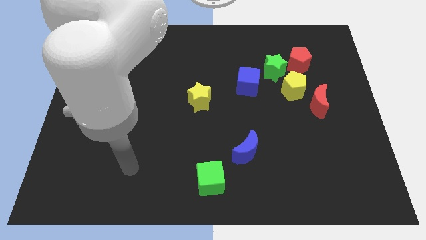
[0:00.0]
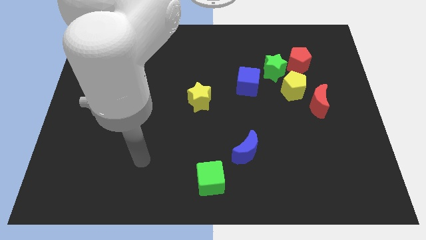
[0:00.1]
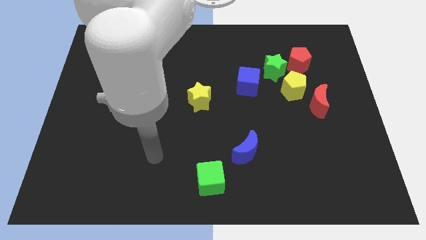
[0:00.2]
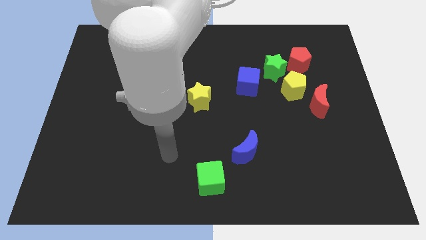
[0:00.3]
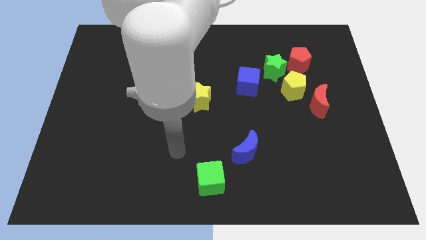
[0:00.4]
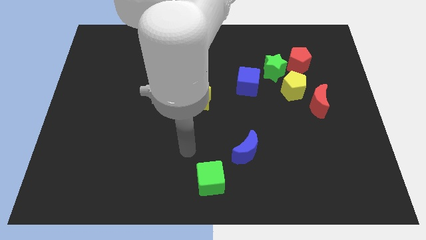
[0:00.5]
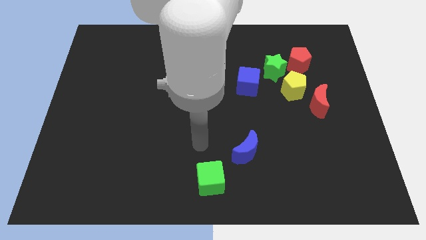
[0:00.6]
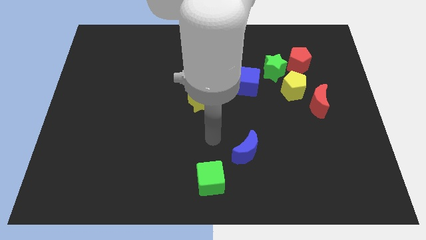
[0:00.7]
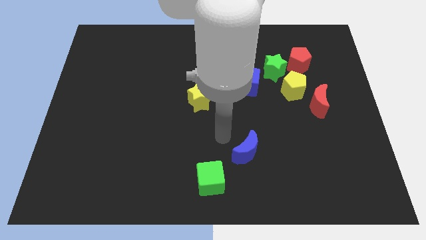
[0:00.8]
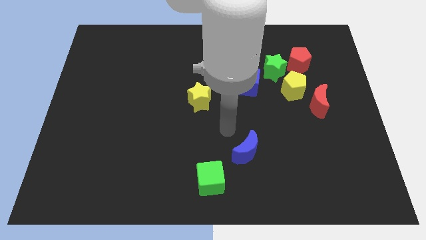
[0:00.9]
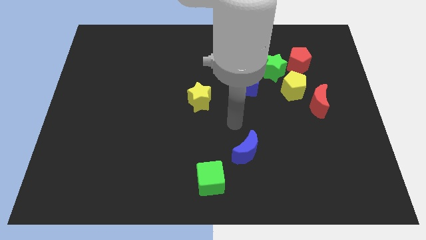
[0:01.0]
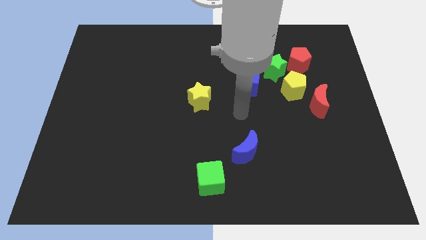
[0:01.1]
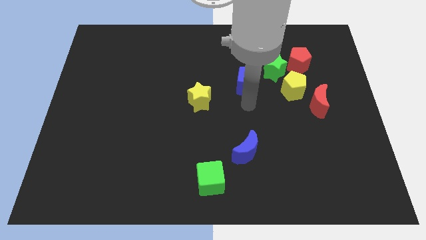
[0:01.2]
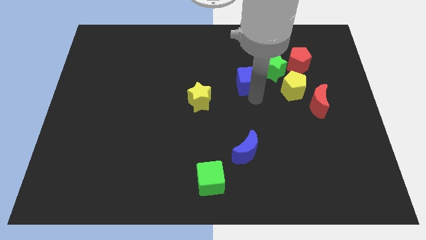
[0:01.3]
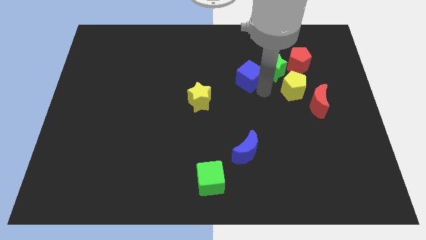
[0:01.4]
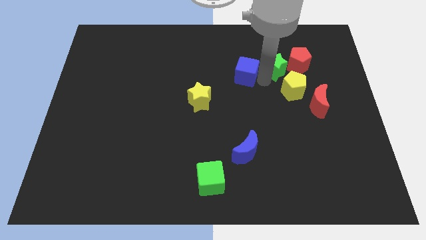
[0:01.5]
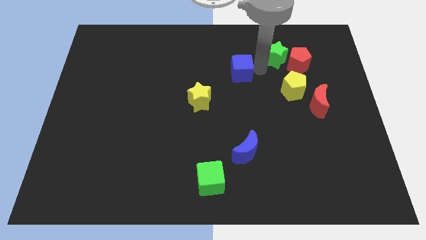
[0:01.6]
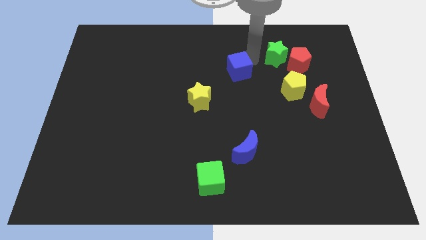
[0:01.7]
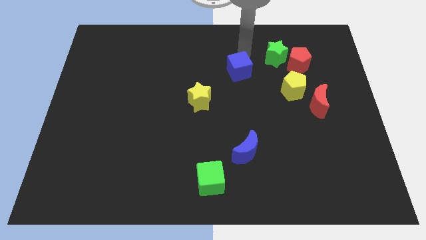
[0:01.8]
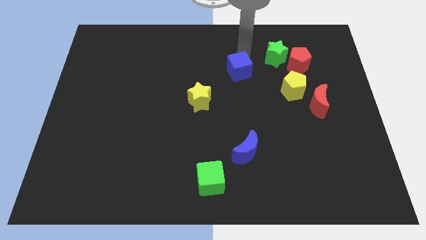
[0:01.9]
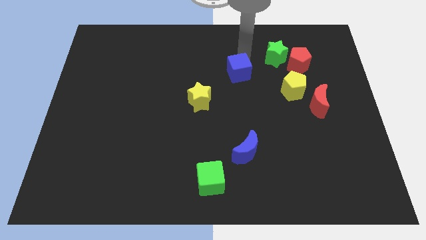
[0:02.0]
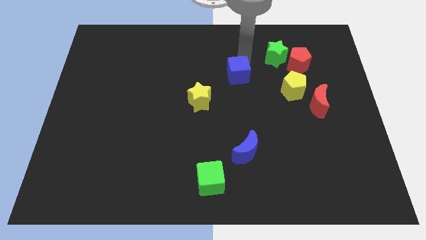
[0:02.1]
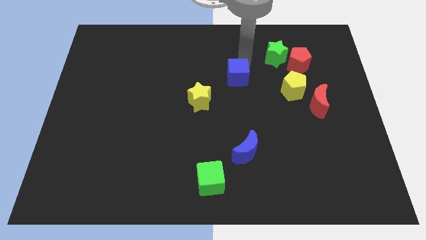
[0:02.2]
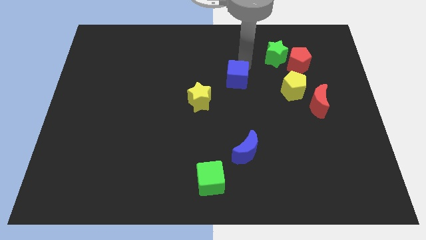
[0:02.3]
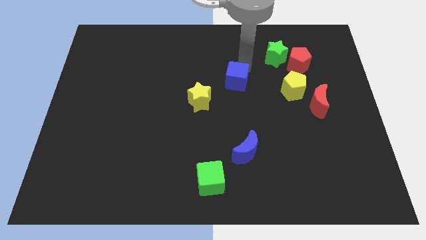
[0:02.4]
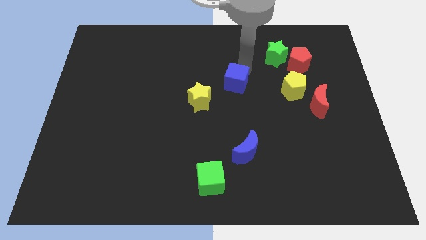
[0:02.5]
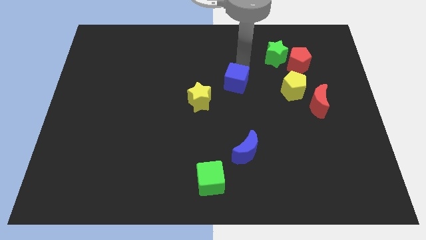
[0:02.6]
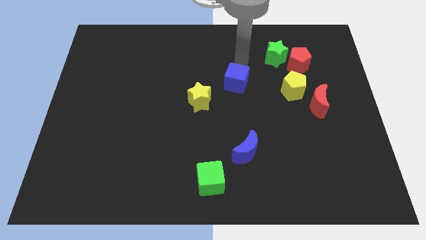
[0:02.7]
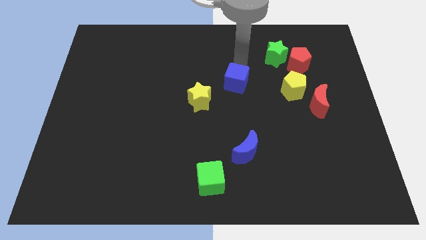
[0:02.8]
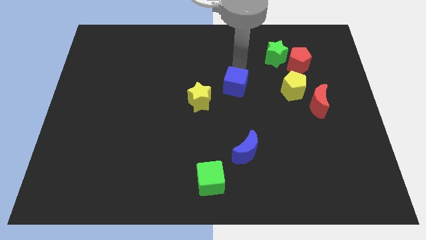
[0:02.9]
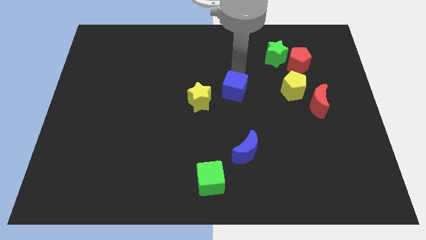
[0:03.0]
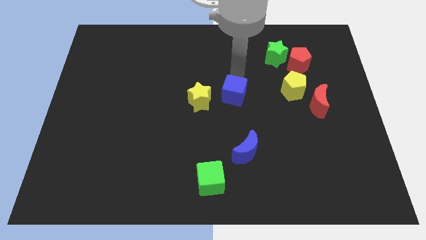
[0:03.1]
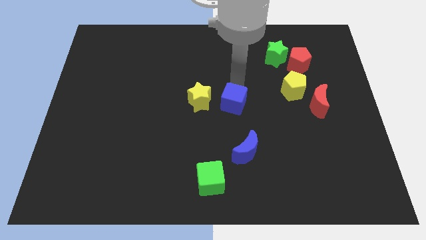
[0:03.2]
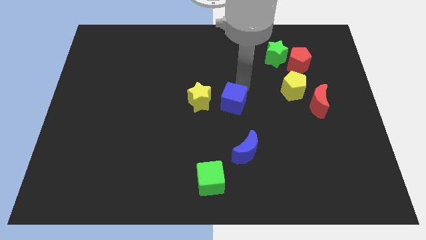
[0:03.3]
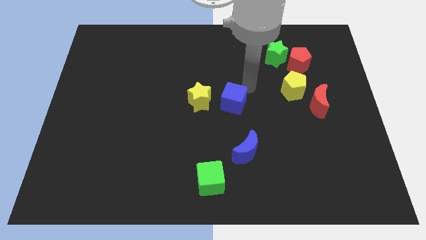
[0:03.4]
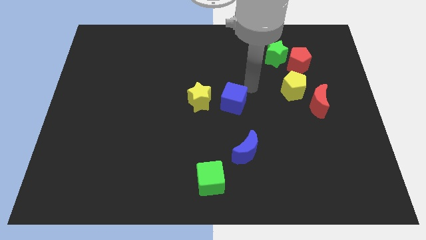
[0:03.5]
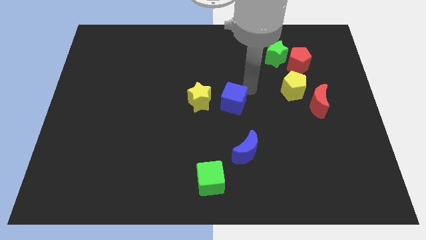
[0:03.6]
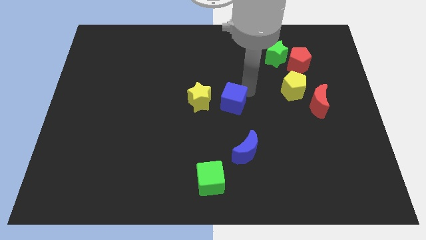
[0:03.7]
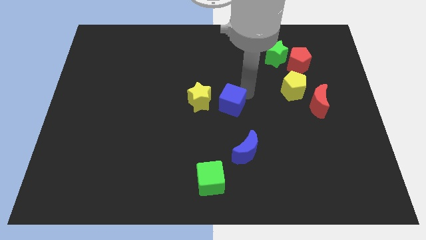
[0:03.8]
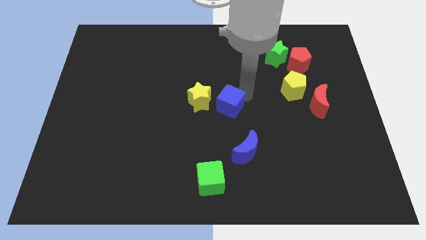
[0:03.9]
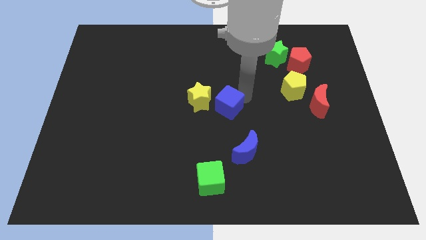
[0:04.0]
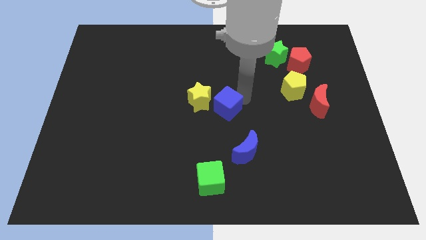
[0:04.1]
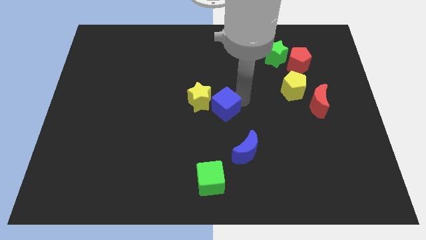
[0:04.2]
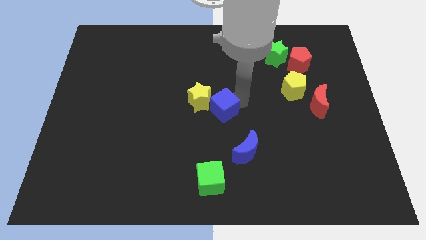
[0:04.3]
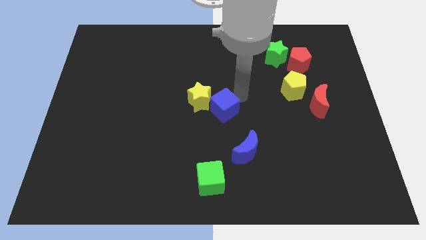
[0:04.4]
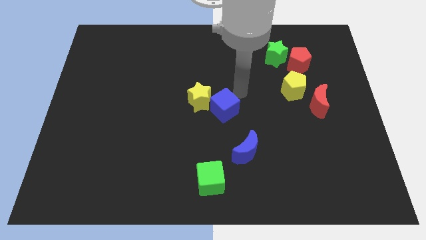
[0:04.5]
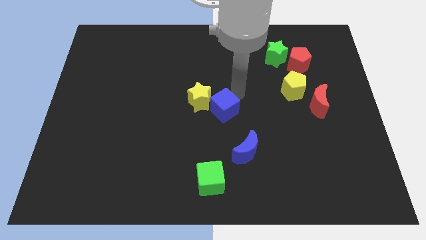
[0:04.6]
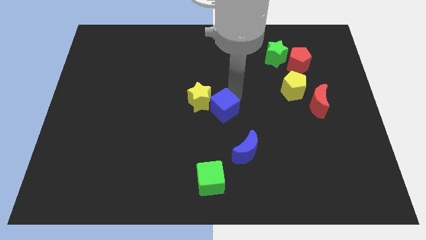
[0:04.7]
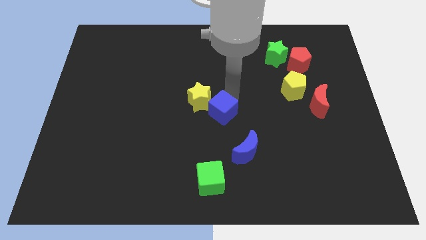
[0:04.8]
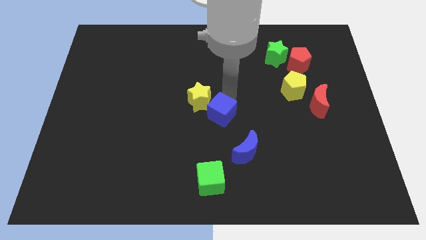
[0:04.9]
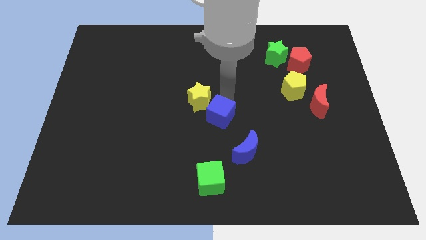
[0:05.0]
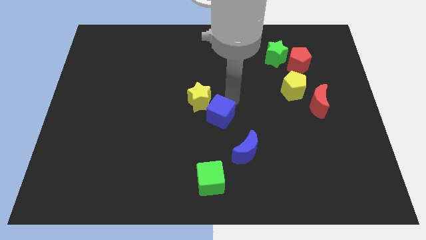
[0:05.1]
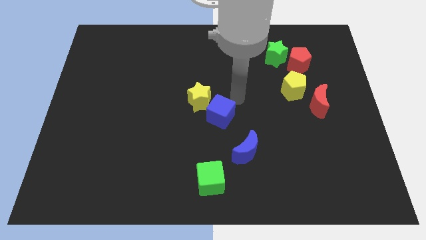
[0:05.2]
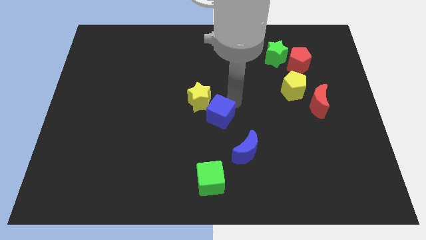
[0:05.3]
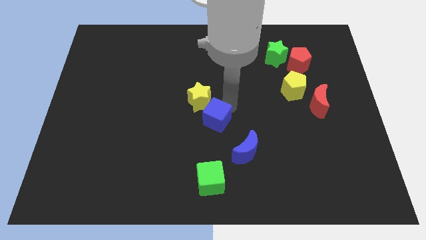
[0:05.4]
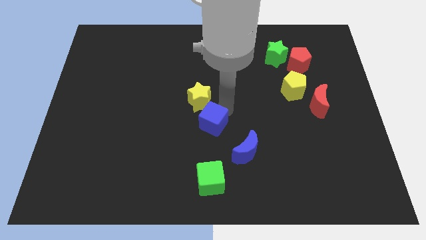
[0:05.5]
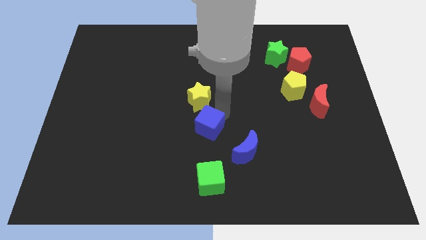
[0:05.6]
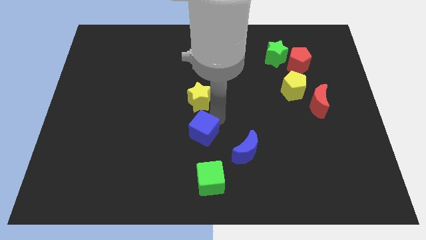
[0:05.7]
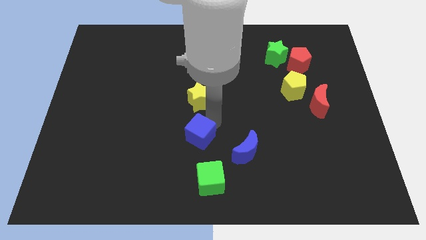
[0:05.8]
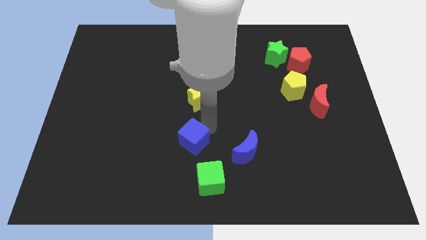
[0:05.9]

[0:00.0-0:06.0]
slide the blue cube diagonally downwards and left

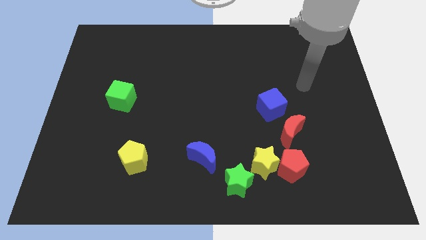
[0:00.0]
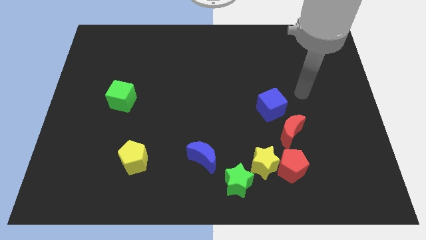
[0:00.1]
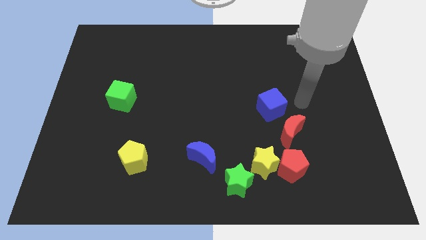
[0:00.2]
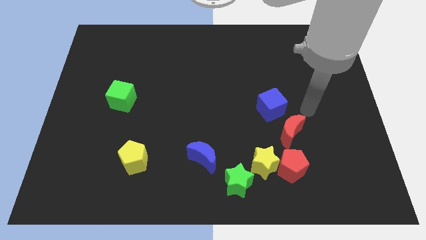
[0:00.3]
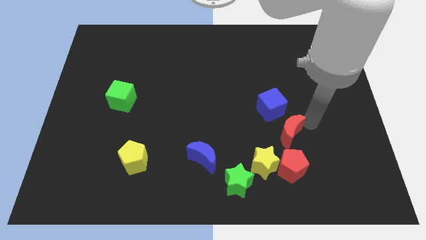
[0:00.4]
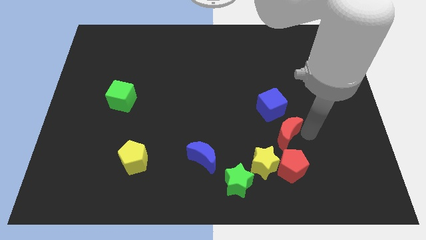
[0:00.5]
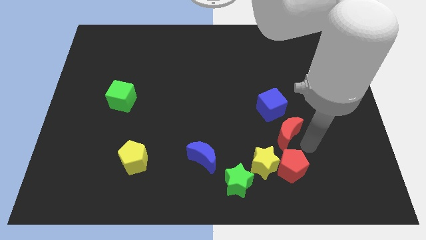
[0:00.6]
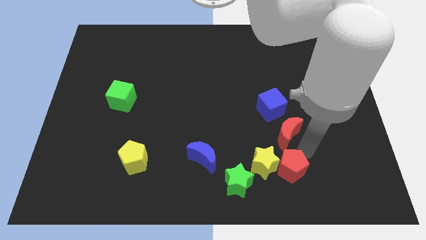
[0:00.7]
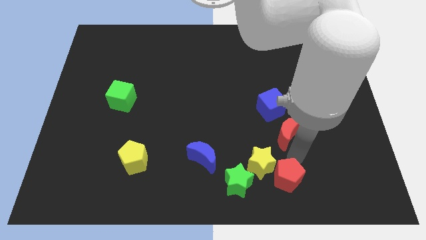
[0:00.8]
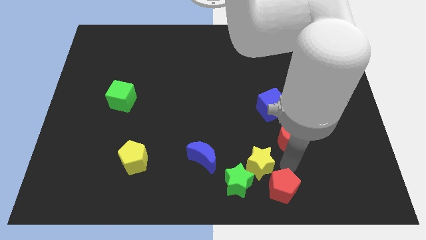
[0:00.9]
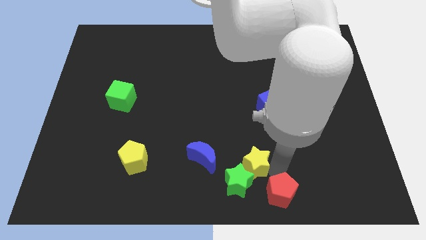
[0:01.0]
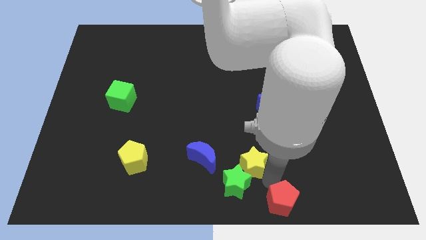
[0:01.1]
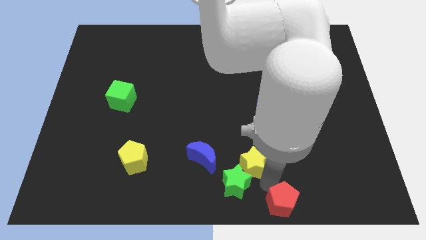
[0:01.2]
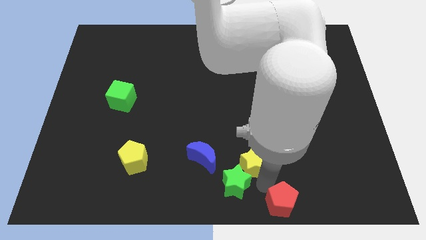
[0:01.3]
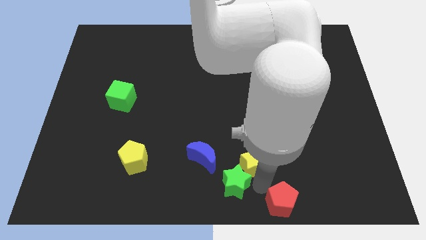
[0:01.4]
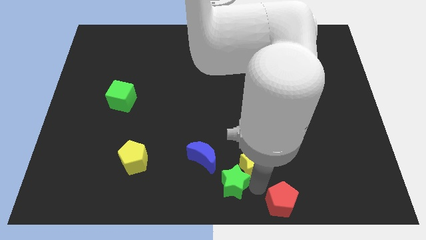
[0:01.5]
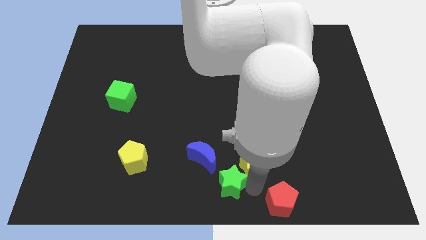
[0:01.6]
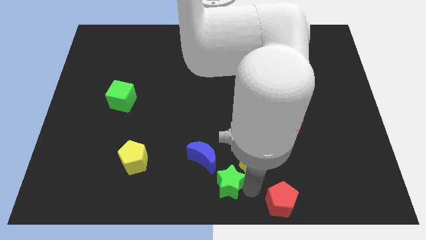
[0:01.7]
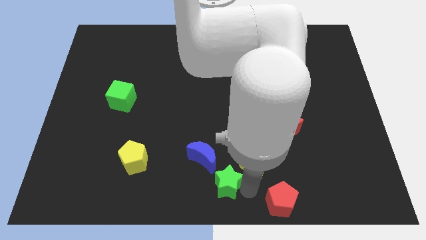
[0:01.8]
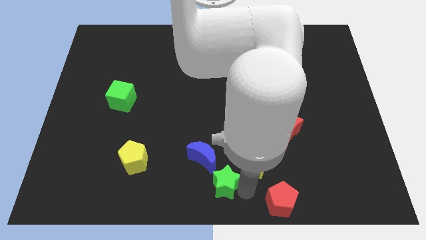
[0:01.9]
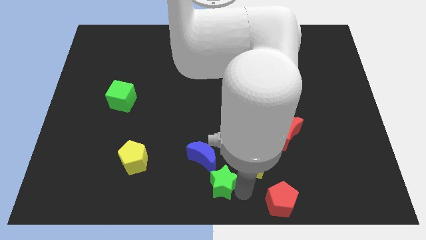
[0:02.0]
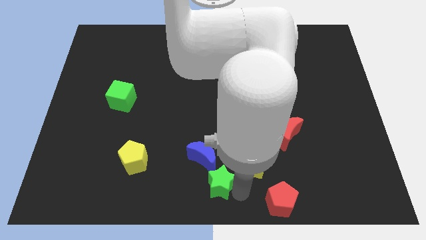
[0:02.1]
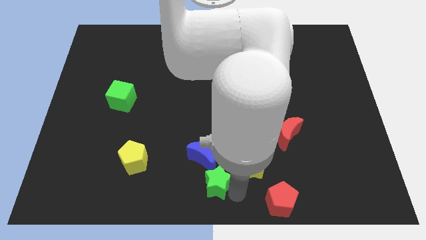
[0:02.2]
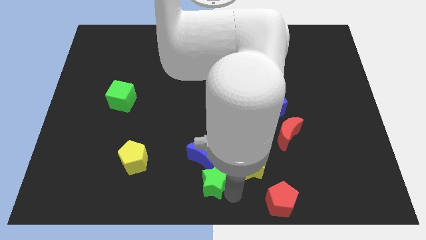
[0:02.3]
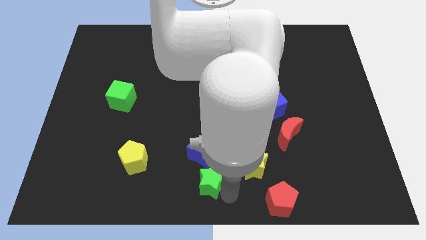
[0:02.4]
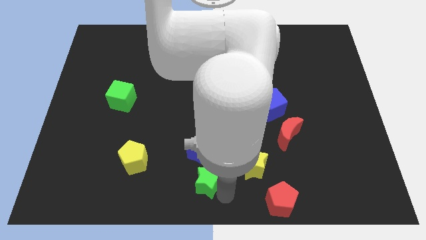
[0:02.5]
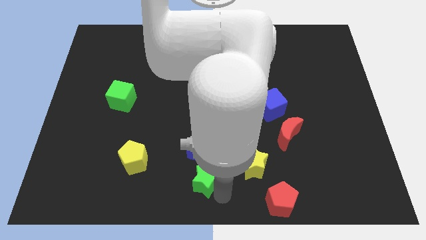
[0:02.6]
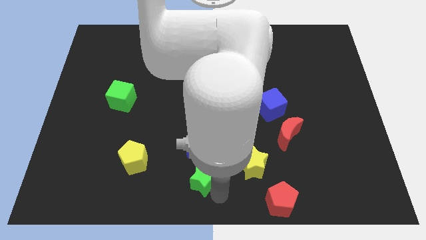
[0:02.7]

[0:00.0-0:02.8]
slide the green star left a bit
